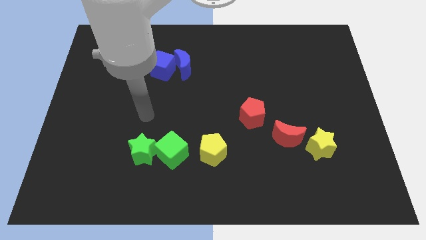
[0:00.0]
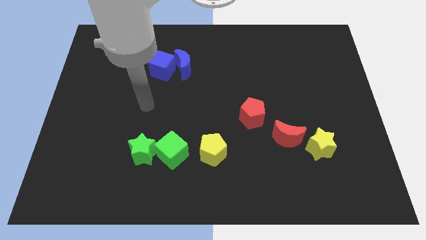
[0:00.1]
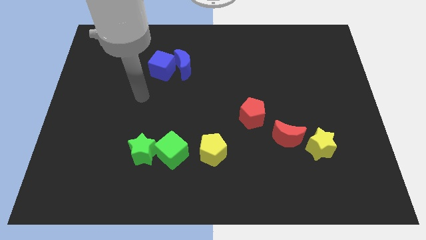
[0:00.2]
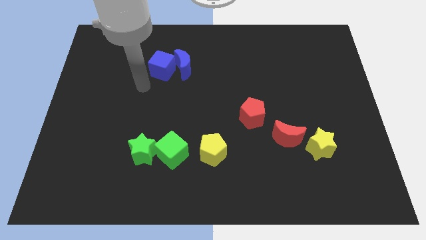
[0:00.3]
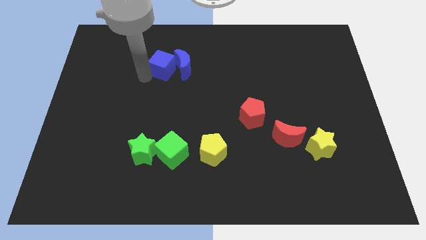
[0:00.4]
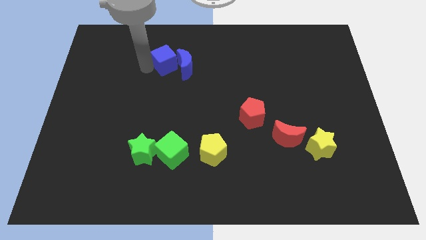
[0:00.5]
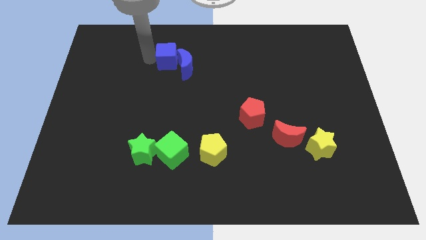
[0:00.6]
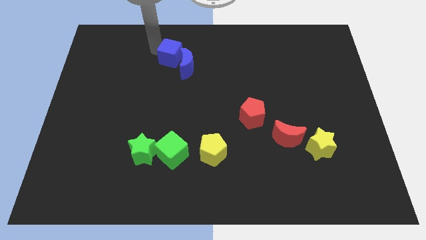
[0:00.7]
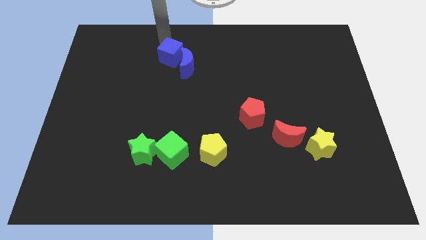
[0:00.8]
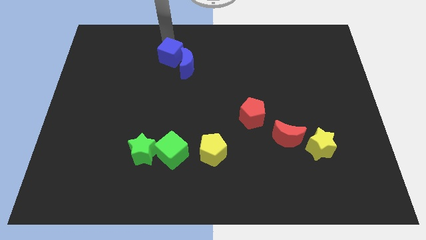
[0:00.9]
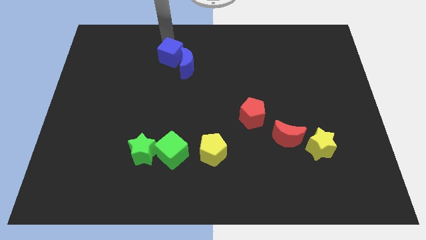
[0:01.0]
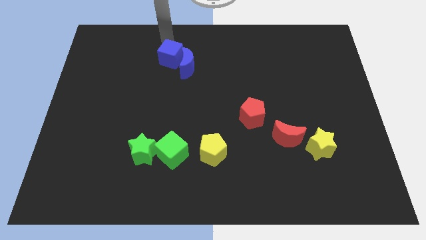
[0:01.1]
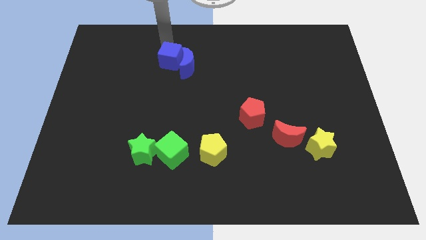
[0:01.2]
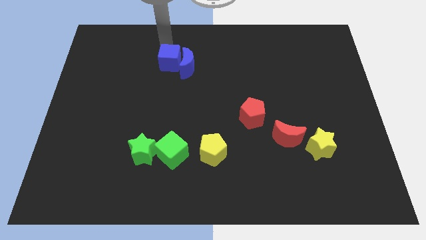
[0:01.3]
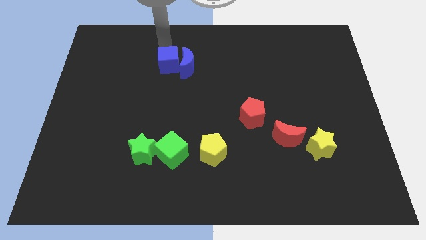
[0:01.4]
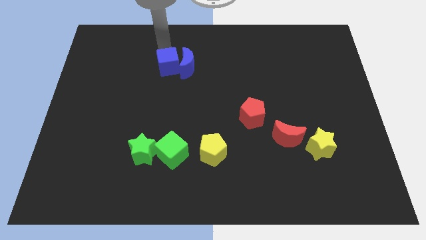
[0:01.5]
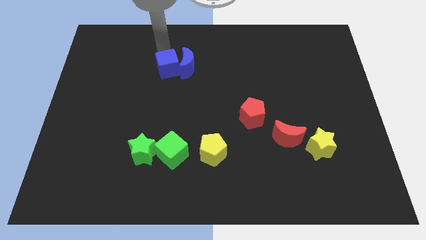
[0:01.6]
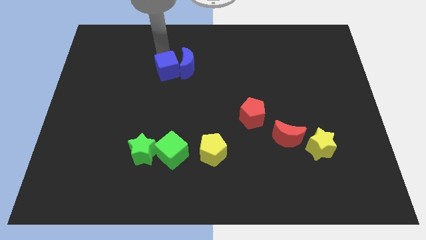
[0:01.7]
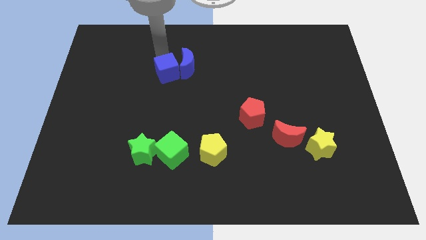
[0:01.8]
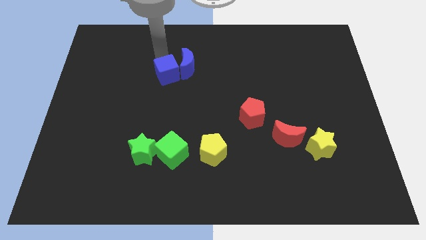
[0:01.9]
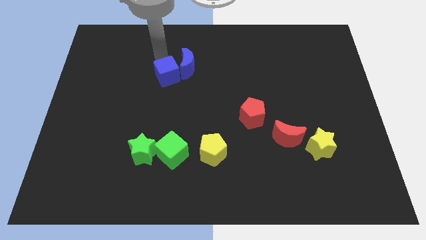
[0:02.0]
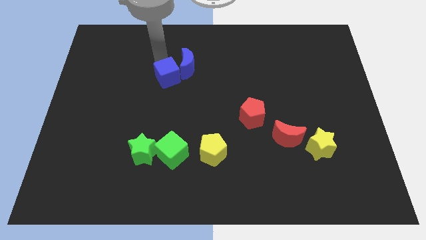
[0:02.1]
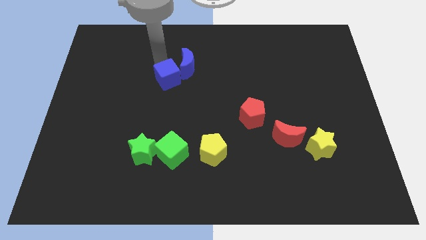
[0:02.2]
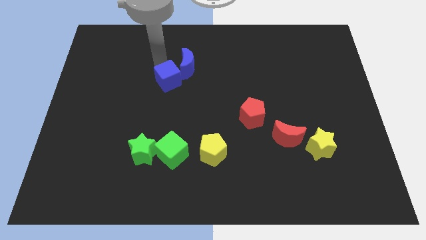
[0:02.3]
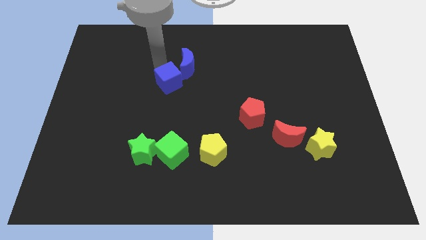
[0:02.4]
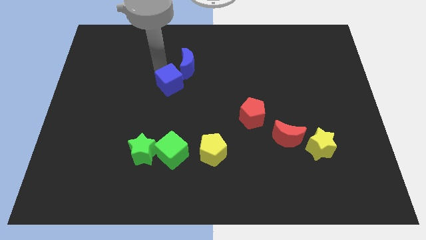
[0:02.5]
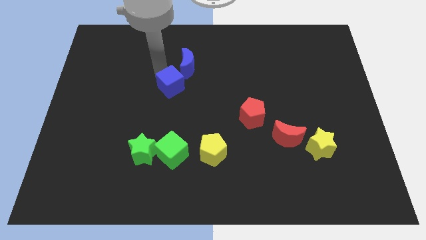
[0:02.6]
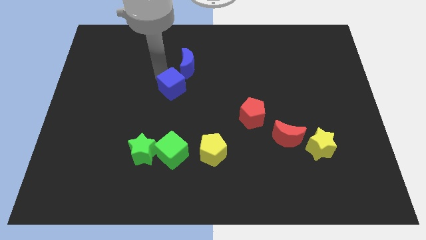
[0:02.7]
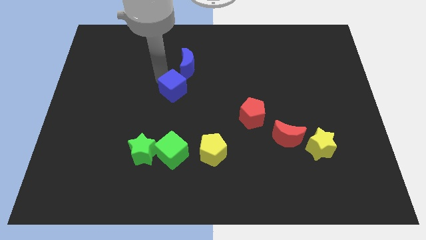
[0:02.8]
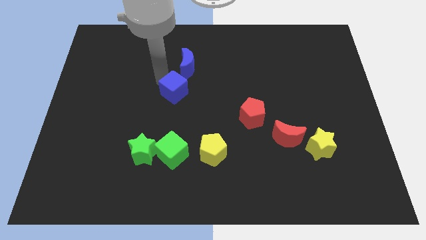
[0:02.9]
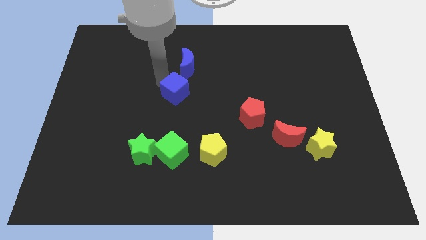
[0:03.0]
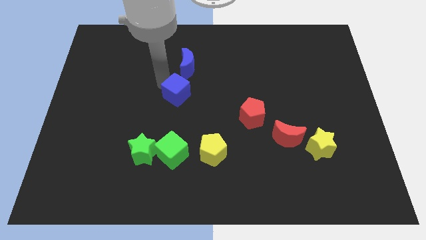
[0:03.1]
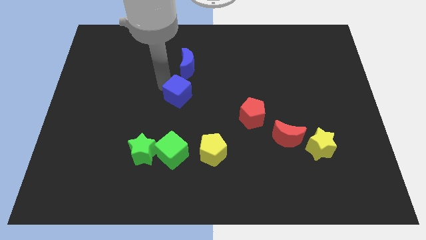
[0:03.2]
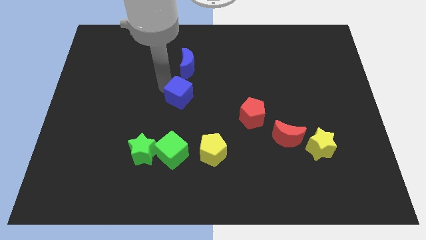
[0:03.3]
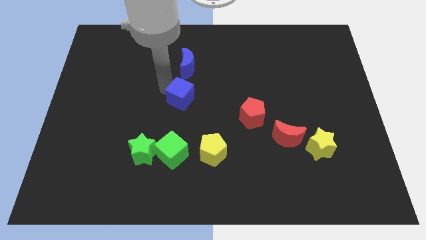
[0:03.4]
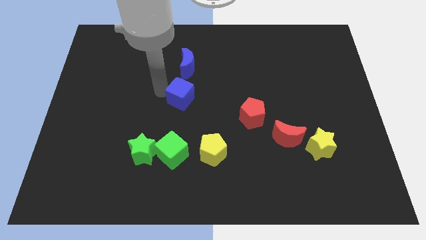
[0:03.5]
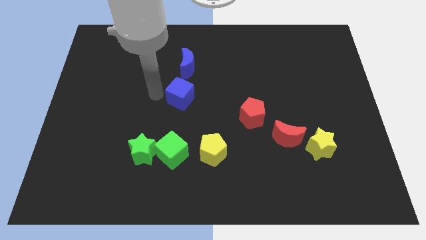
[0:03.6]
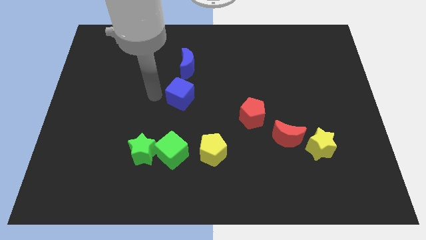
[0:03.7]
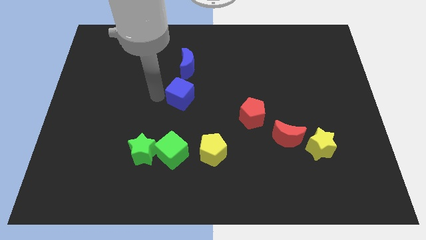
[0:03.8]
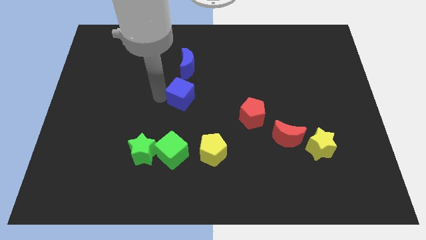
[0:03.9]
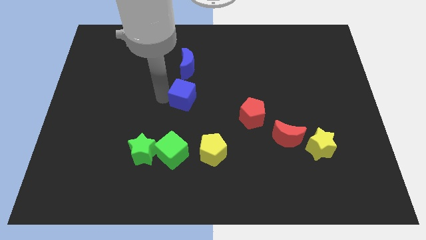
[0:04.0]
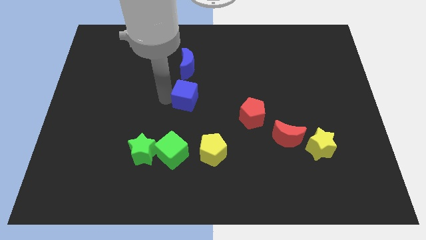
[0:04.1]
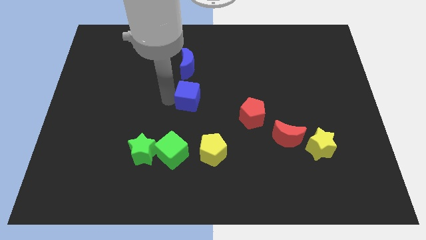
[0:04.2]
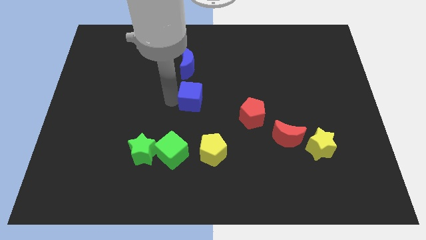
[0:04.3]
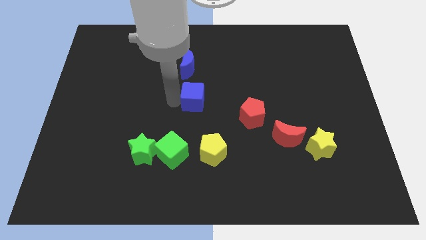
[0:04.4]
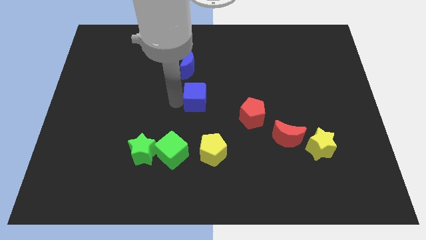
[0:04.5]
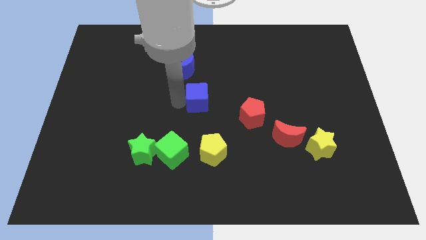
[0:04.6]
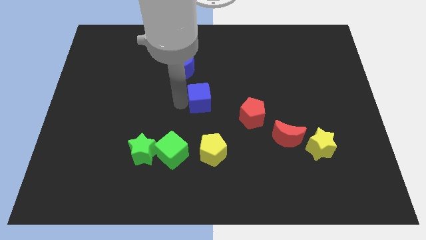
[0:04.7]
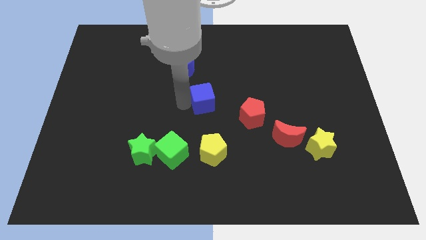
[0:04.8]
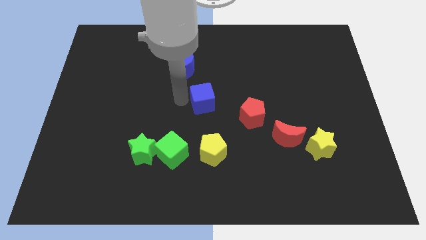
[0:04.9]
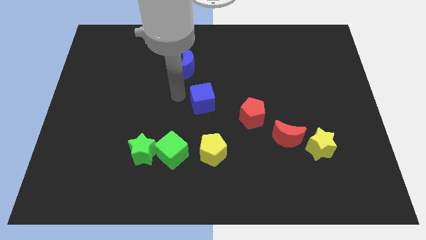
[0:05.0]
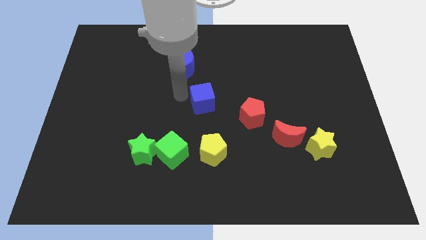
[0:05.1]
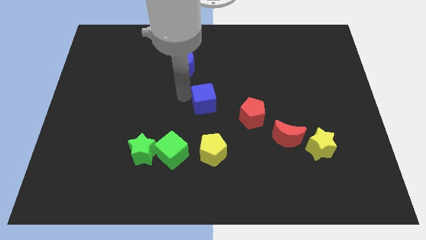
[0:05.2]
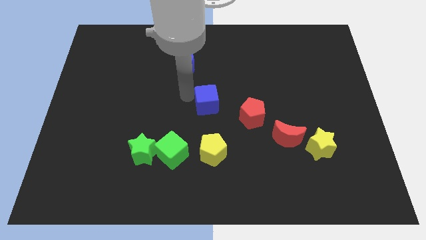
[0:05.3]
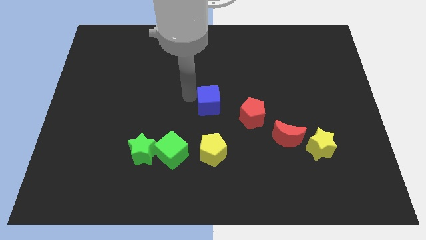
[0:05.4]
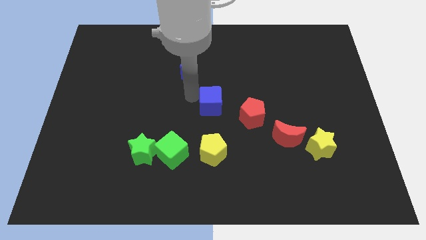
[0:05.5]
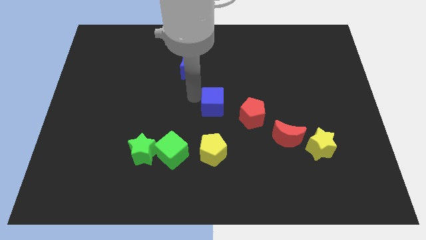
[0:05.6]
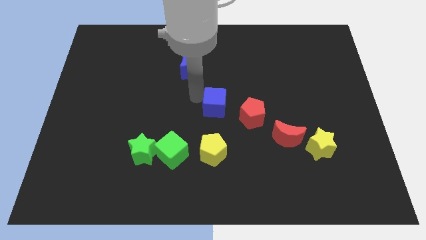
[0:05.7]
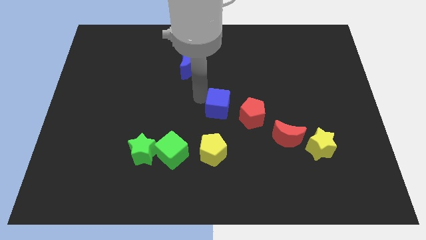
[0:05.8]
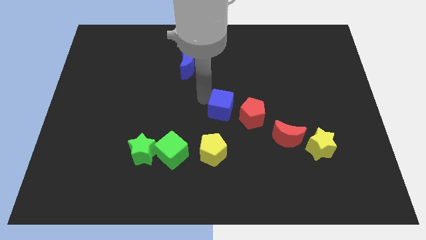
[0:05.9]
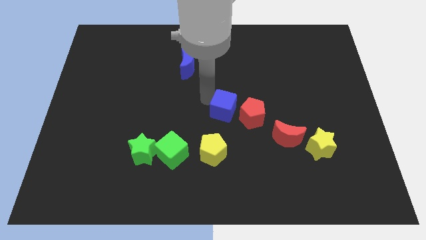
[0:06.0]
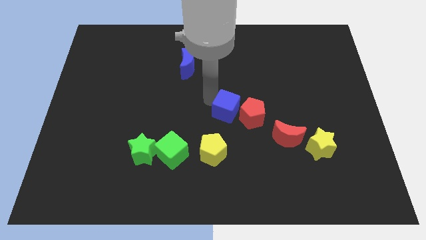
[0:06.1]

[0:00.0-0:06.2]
slide the blue cube next to the red pentagon

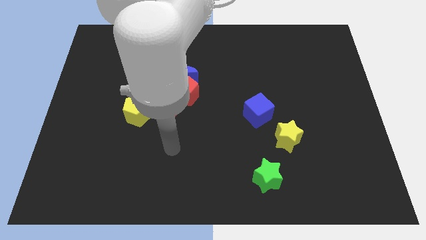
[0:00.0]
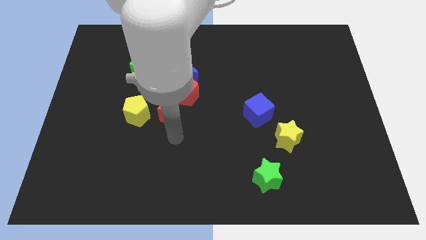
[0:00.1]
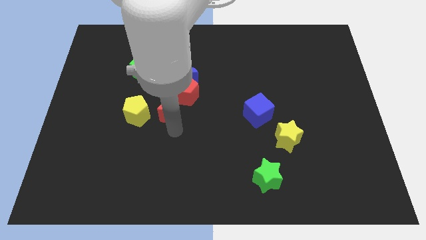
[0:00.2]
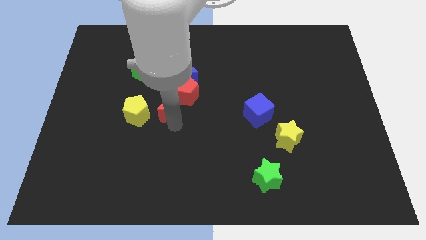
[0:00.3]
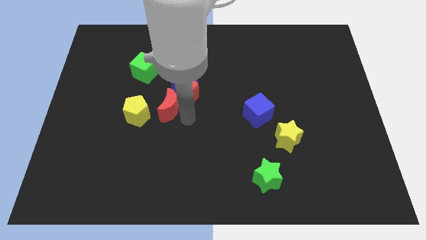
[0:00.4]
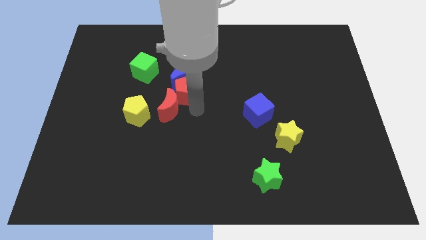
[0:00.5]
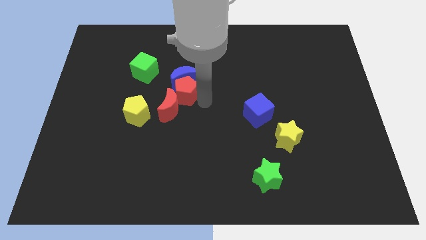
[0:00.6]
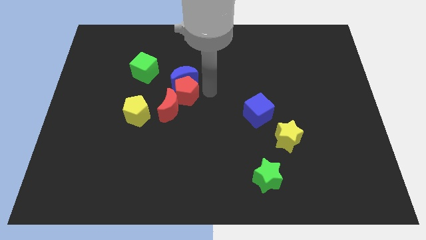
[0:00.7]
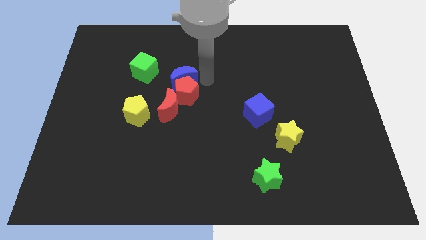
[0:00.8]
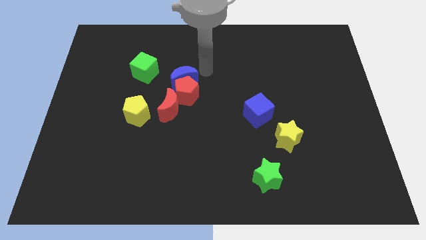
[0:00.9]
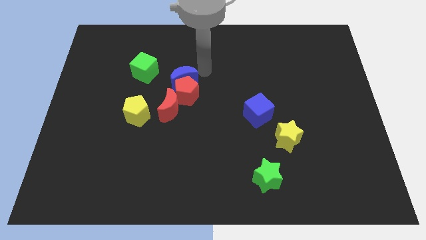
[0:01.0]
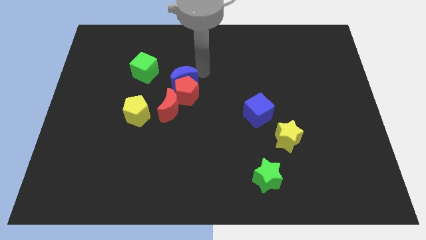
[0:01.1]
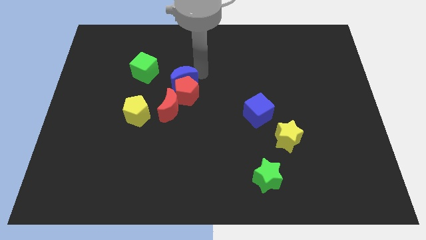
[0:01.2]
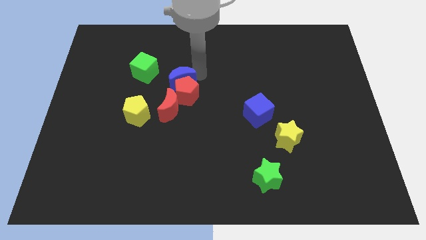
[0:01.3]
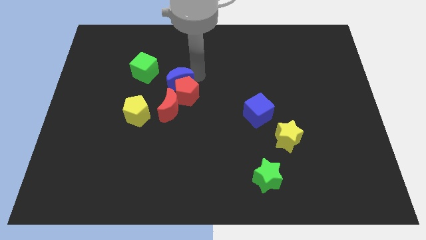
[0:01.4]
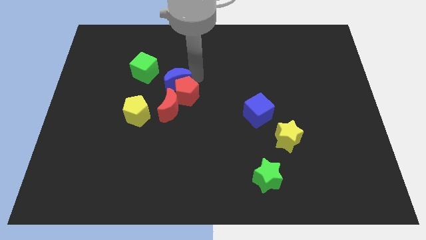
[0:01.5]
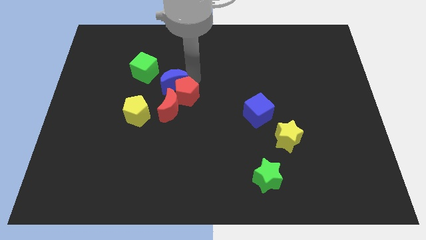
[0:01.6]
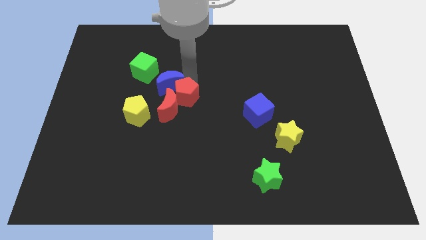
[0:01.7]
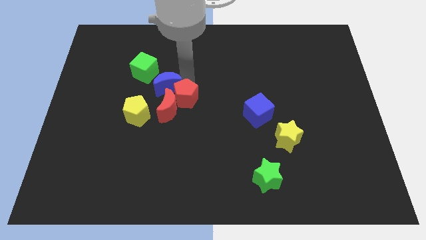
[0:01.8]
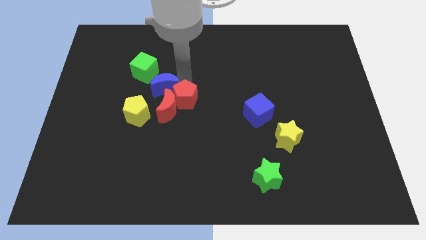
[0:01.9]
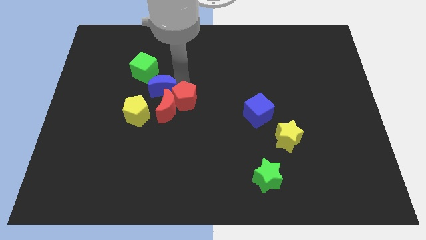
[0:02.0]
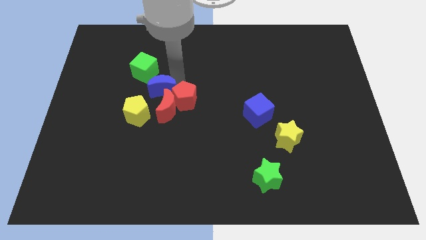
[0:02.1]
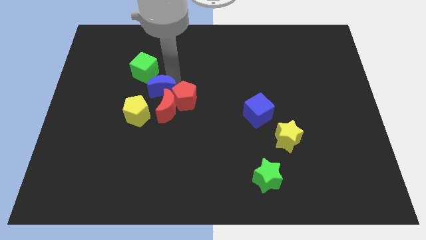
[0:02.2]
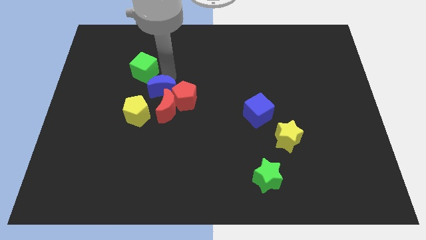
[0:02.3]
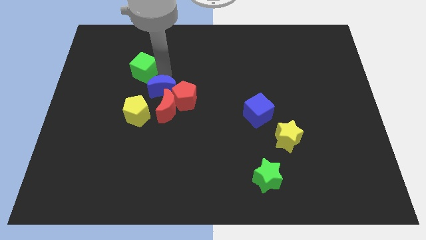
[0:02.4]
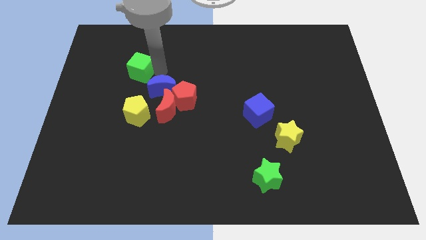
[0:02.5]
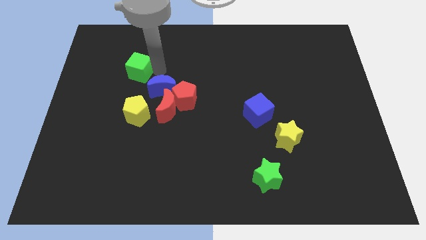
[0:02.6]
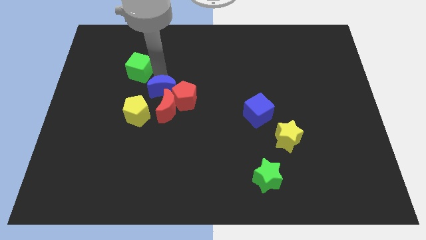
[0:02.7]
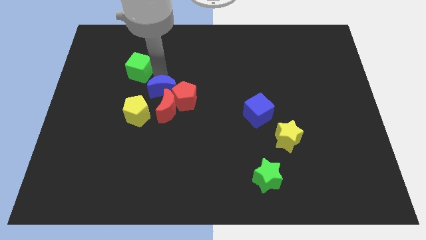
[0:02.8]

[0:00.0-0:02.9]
slide the blue moon to the red moon
